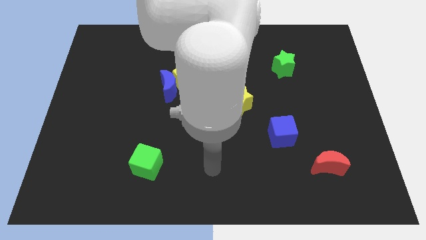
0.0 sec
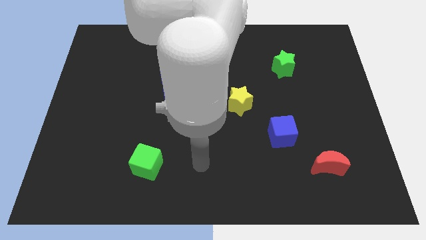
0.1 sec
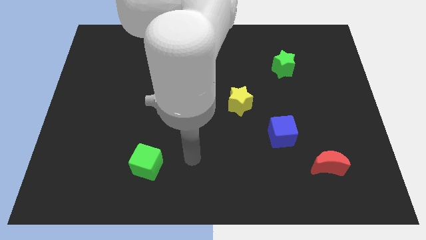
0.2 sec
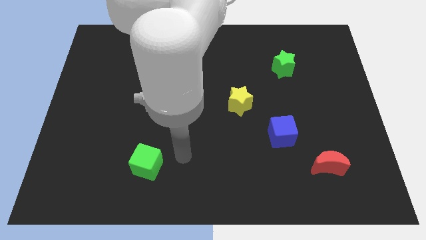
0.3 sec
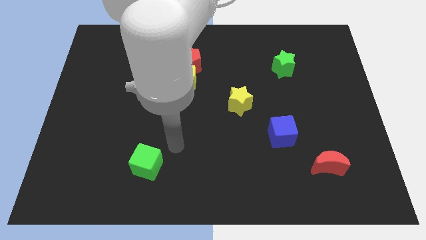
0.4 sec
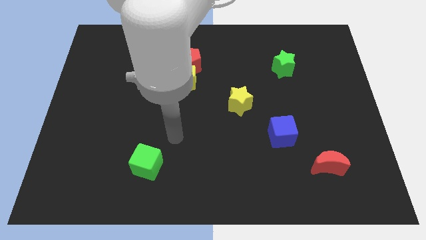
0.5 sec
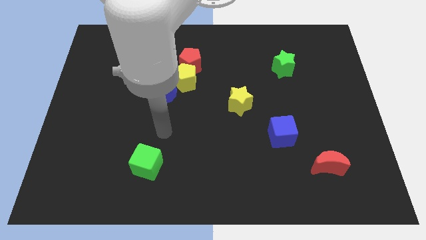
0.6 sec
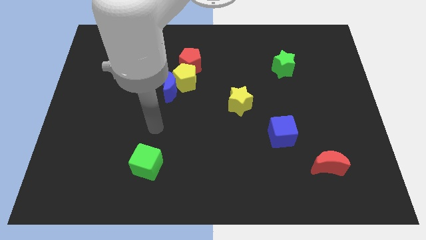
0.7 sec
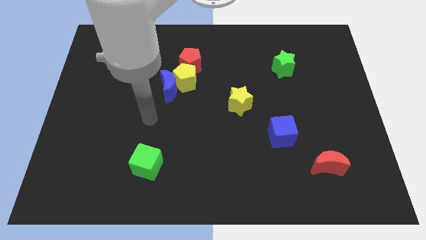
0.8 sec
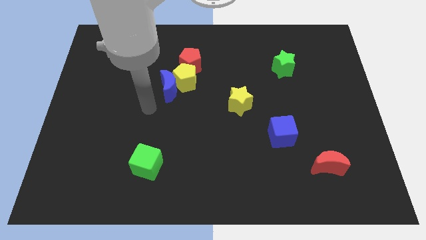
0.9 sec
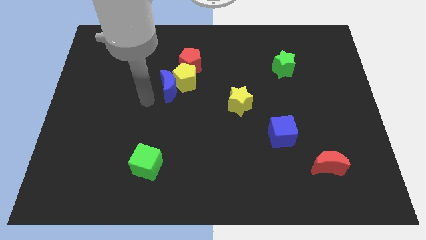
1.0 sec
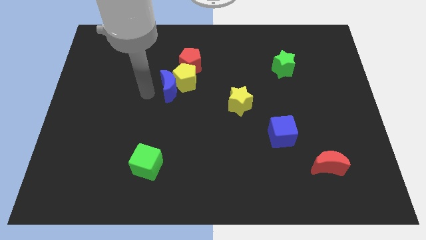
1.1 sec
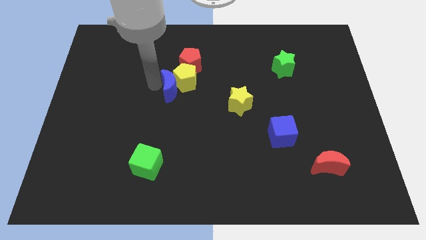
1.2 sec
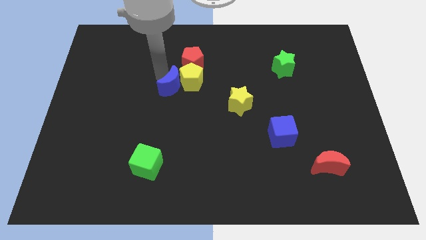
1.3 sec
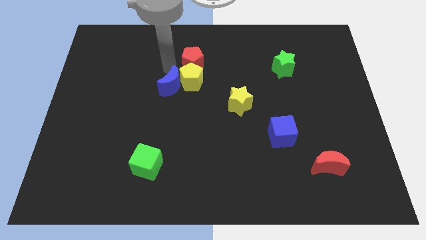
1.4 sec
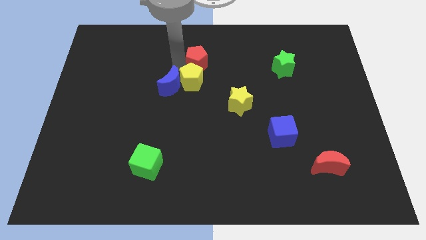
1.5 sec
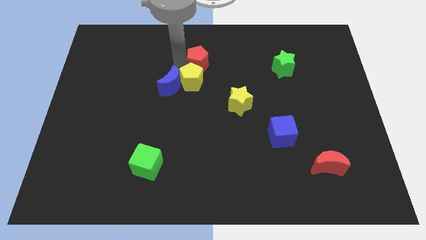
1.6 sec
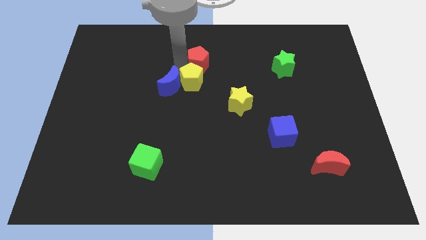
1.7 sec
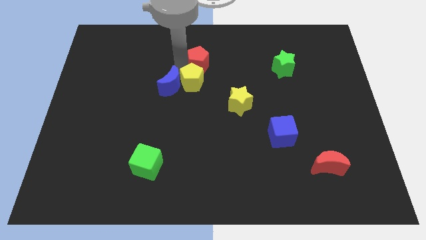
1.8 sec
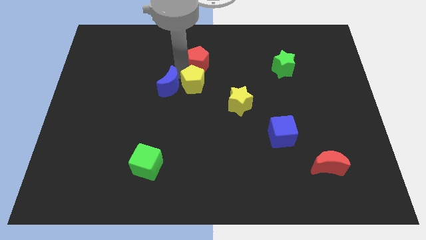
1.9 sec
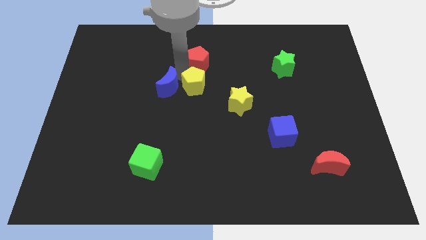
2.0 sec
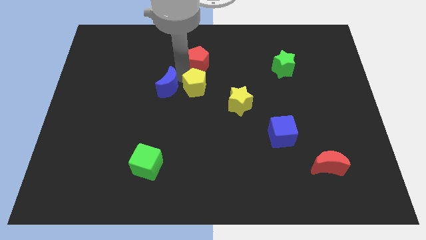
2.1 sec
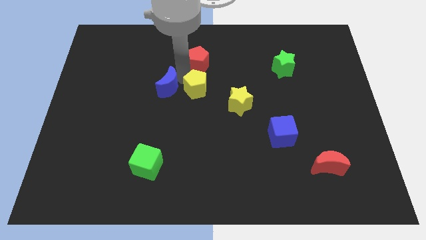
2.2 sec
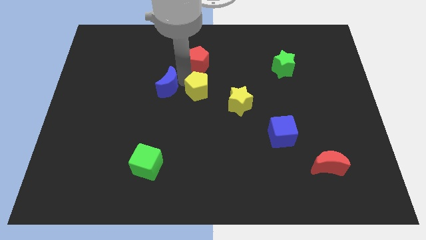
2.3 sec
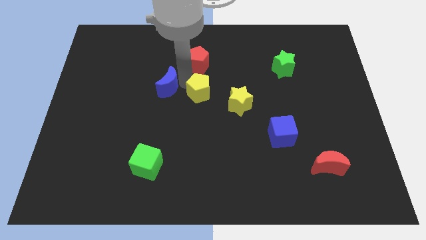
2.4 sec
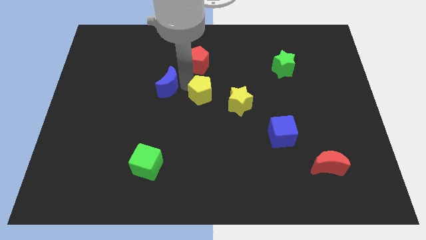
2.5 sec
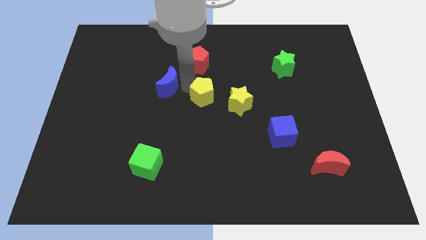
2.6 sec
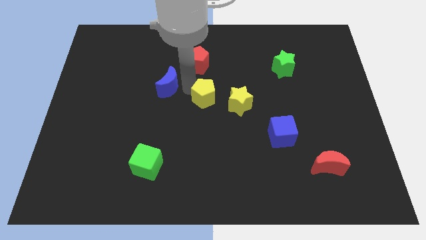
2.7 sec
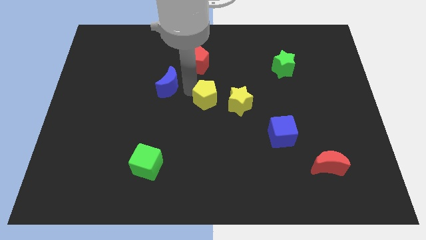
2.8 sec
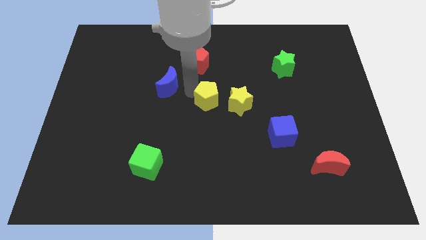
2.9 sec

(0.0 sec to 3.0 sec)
pull the yellow pentagon apart from the blue moon and red pentagon

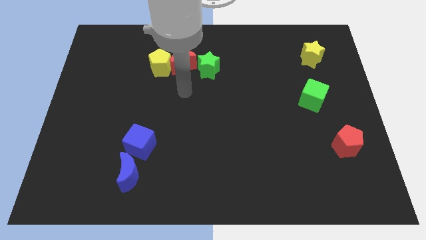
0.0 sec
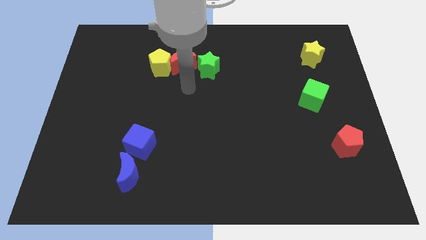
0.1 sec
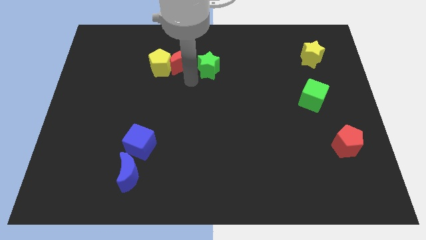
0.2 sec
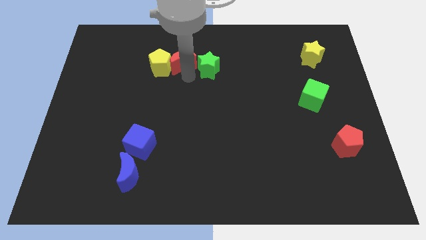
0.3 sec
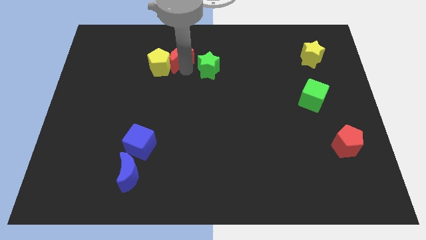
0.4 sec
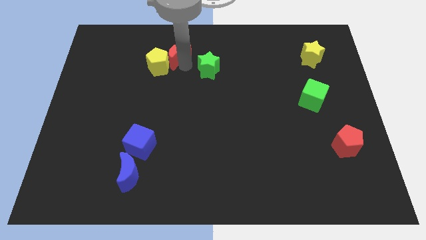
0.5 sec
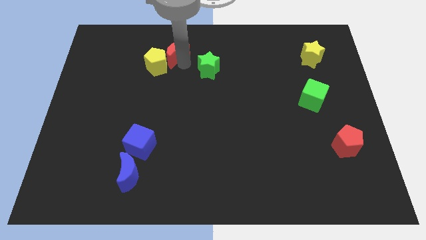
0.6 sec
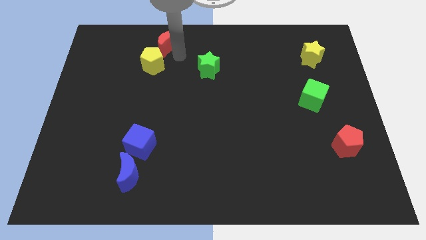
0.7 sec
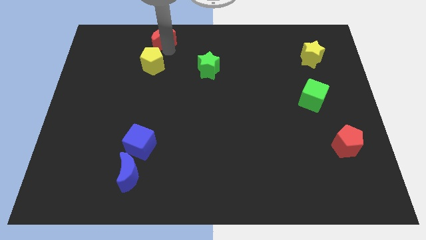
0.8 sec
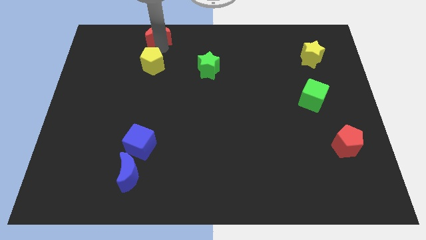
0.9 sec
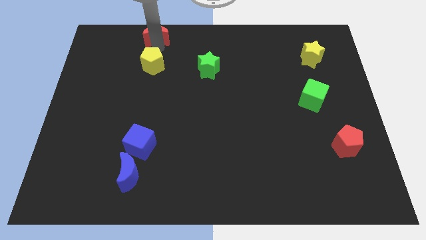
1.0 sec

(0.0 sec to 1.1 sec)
separate the yellow pentagon from the red moon

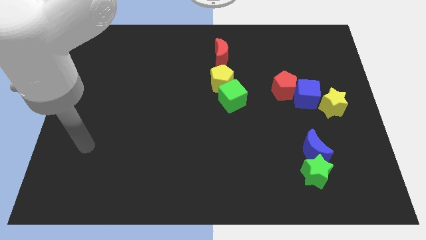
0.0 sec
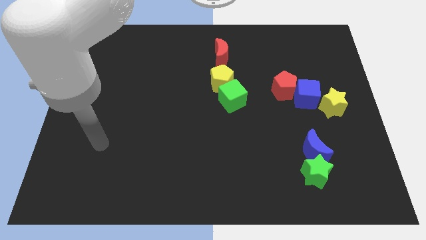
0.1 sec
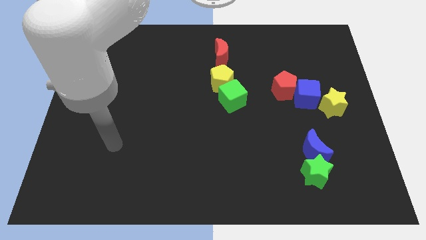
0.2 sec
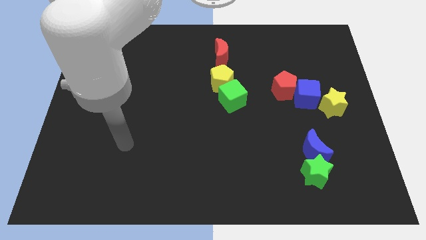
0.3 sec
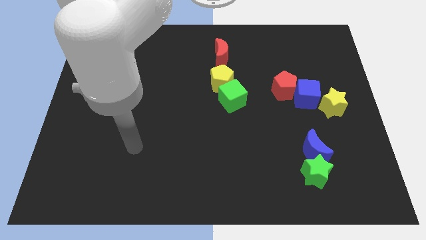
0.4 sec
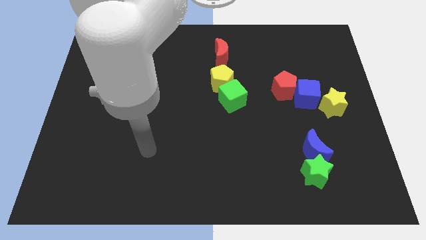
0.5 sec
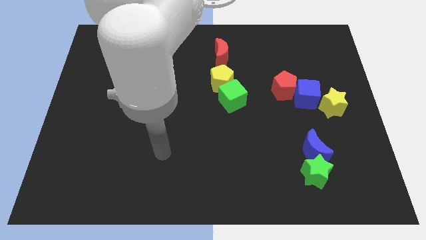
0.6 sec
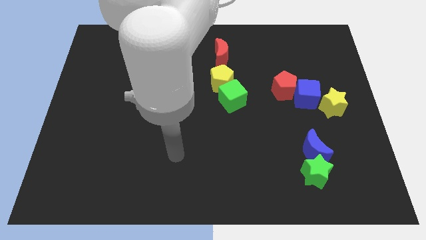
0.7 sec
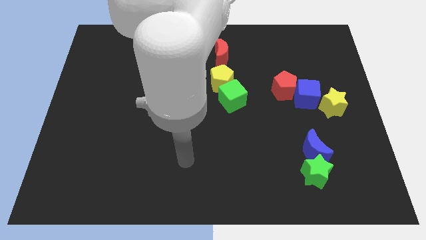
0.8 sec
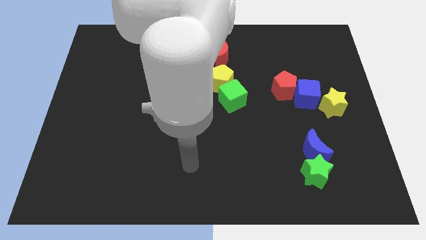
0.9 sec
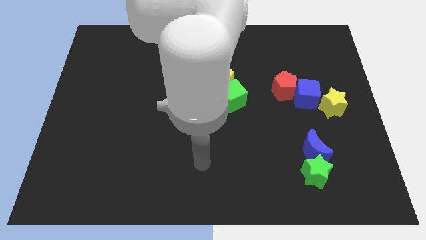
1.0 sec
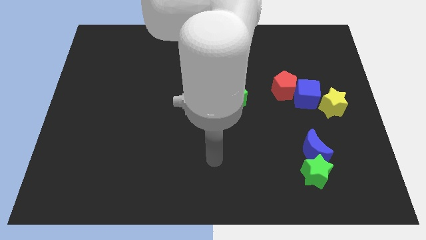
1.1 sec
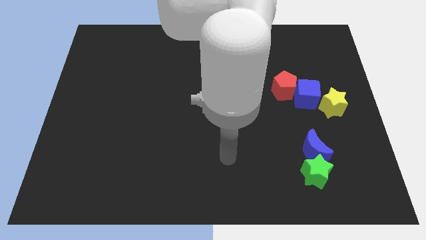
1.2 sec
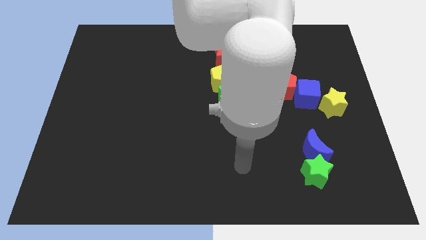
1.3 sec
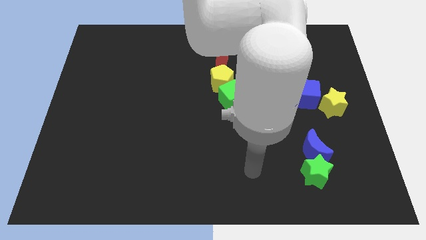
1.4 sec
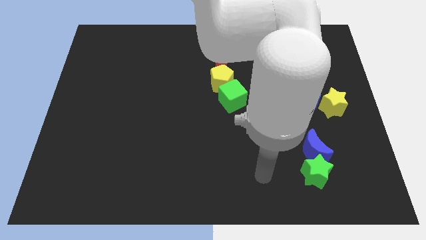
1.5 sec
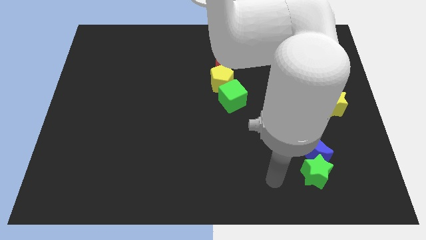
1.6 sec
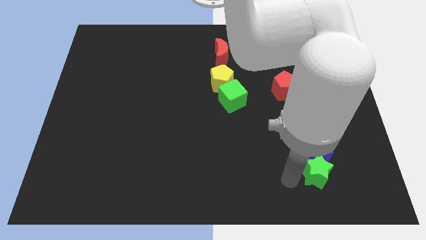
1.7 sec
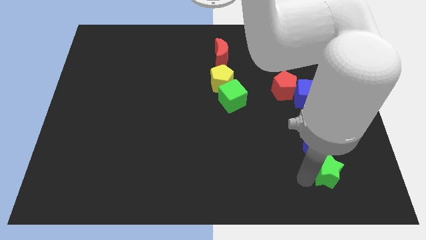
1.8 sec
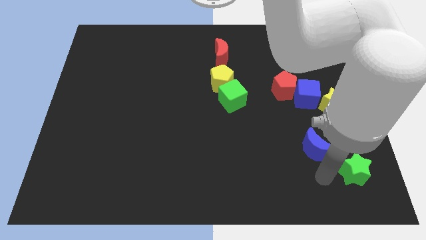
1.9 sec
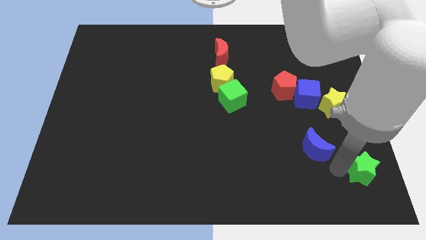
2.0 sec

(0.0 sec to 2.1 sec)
move the blue moon away from the green star

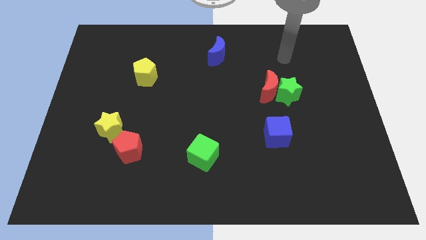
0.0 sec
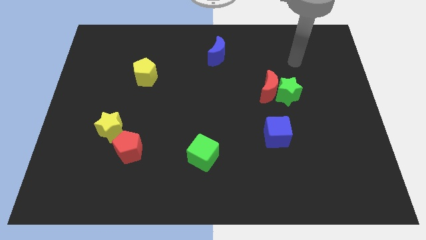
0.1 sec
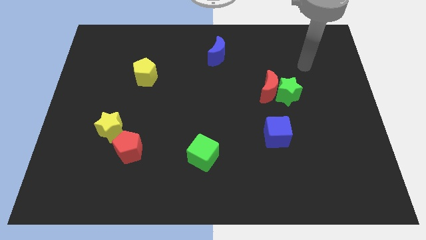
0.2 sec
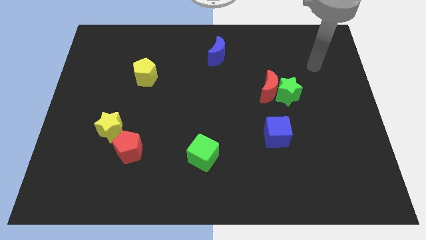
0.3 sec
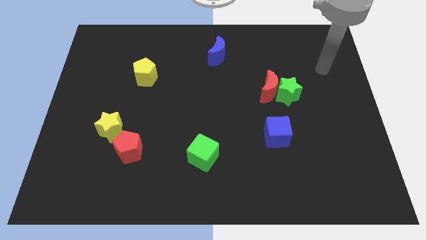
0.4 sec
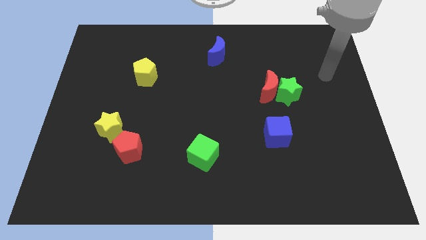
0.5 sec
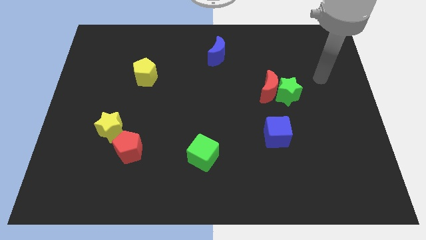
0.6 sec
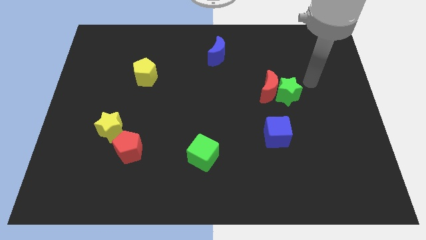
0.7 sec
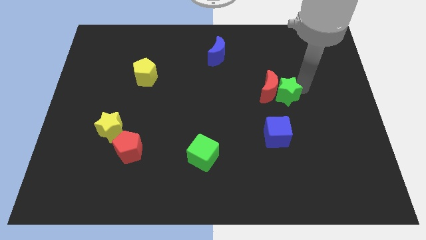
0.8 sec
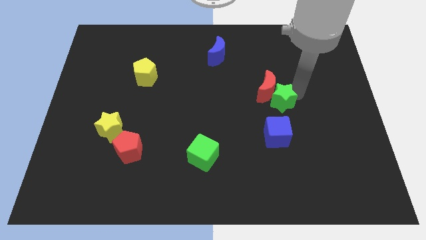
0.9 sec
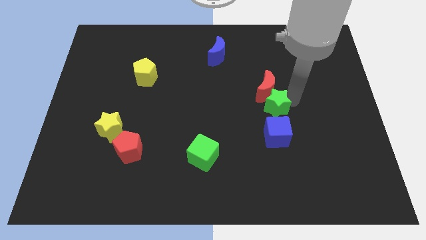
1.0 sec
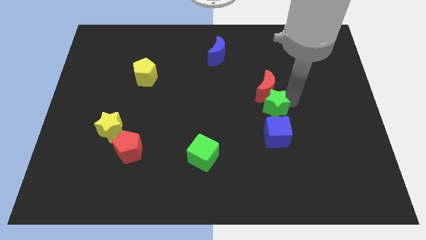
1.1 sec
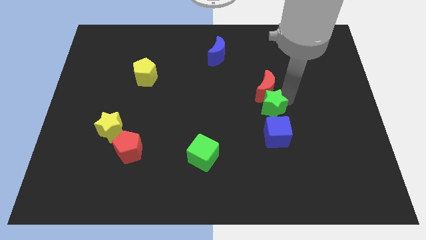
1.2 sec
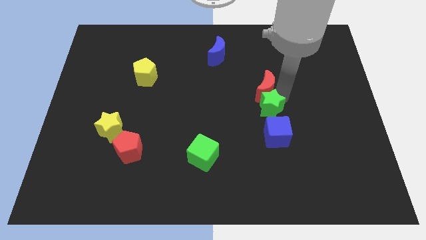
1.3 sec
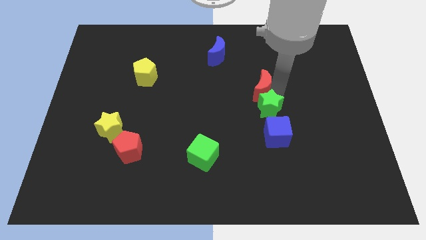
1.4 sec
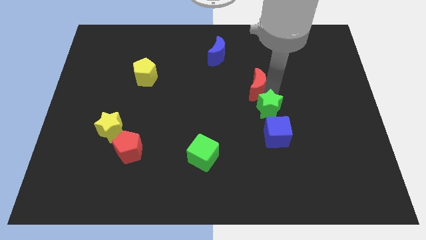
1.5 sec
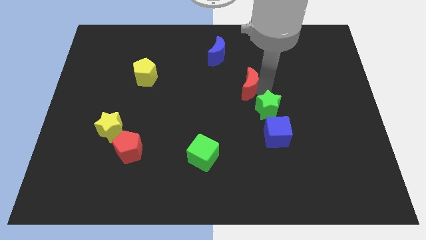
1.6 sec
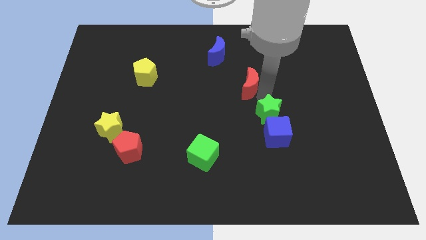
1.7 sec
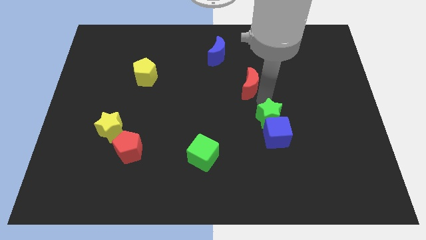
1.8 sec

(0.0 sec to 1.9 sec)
pull the red moon apart from the green star

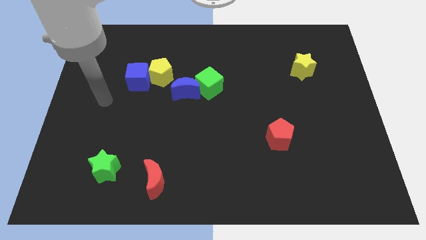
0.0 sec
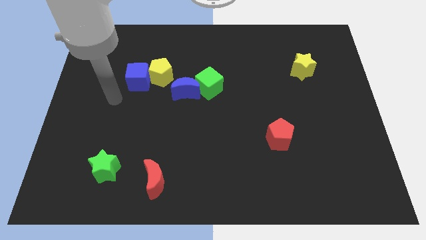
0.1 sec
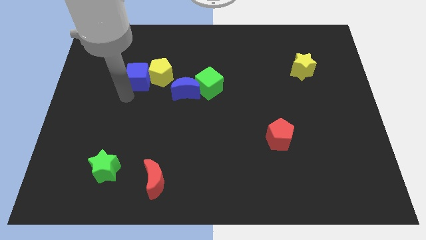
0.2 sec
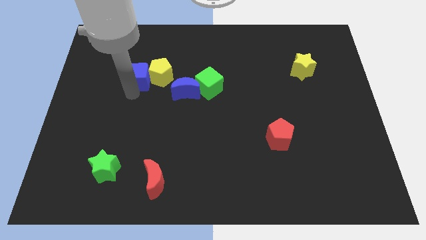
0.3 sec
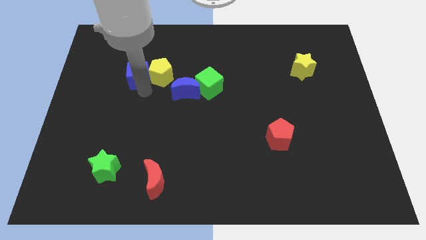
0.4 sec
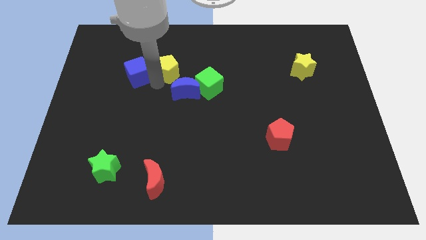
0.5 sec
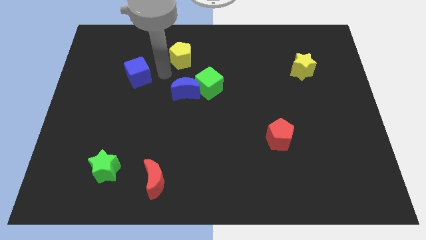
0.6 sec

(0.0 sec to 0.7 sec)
separate the blue cube from the yellow pentagon

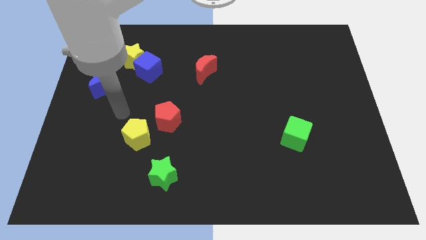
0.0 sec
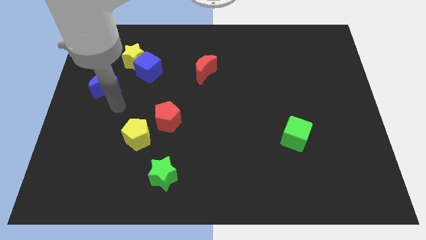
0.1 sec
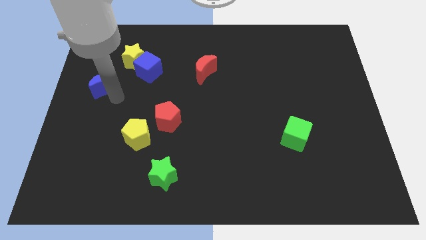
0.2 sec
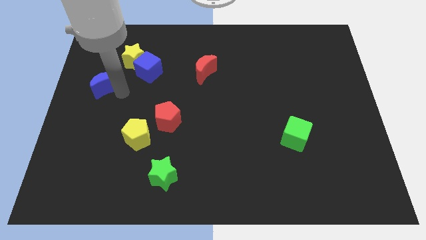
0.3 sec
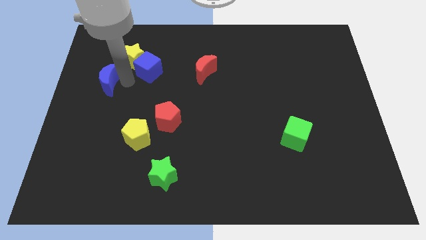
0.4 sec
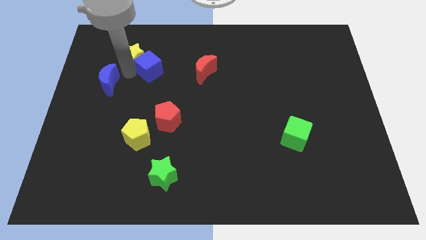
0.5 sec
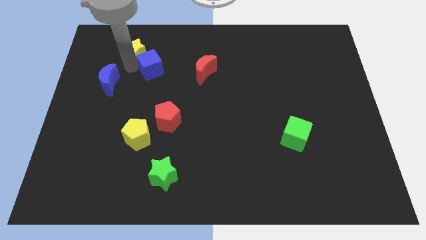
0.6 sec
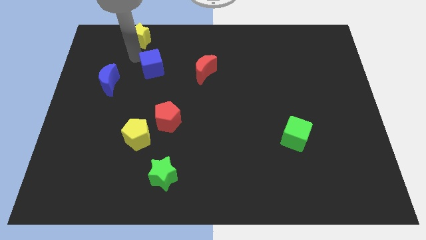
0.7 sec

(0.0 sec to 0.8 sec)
separate the blue cube from the yellow star
